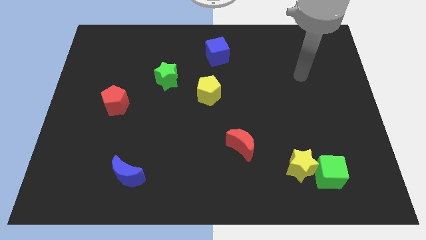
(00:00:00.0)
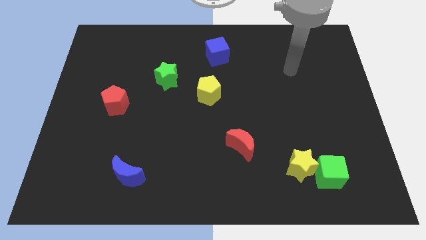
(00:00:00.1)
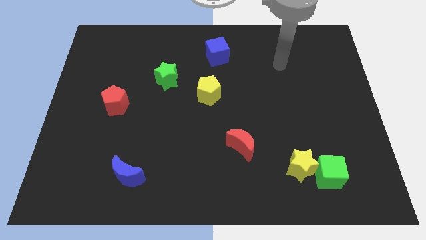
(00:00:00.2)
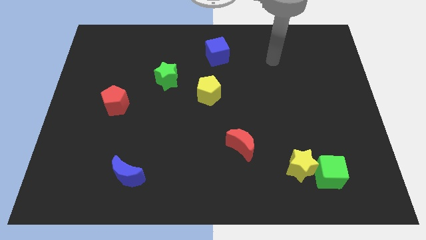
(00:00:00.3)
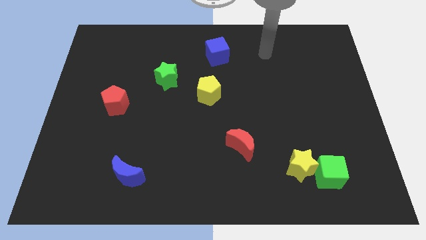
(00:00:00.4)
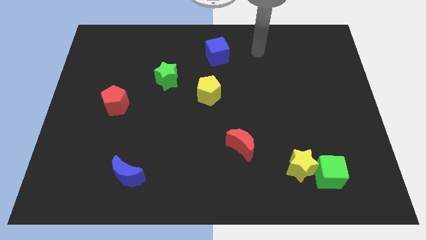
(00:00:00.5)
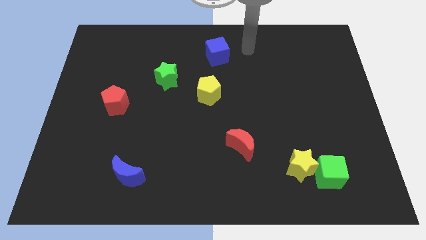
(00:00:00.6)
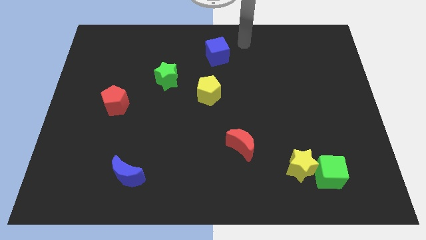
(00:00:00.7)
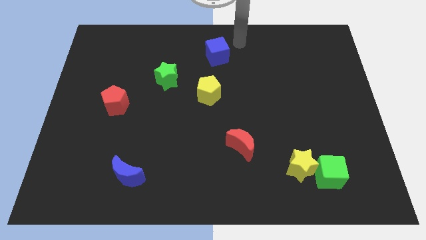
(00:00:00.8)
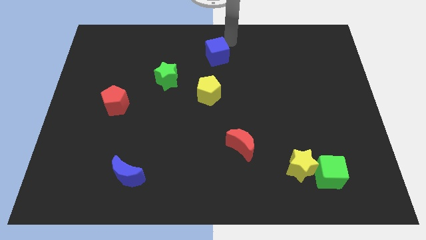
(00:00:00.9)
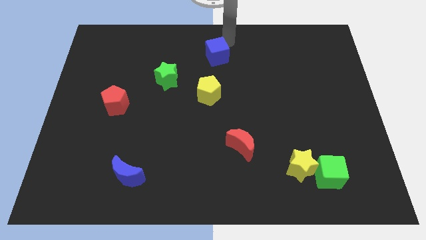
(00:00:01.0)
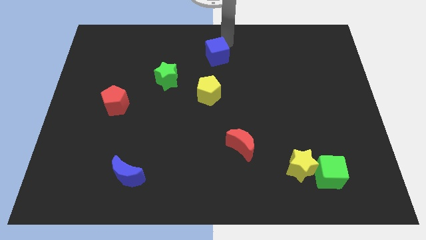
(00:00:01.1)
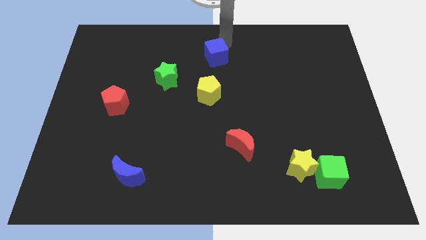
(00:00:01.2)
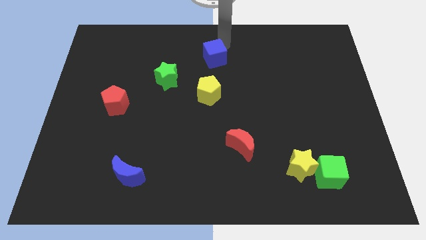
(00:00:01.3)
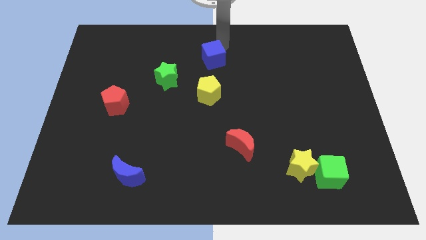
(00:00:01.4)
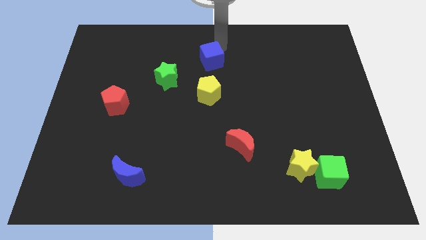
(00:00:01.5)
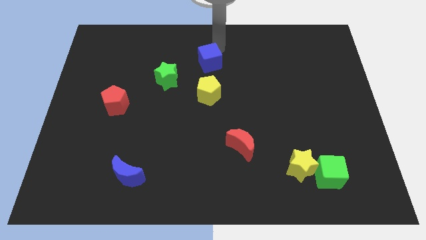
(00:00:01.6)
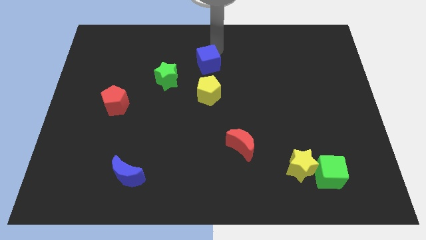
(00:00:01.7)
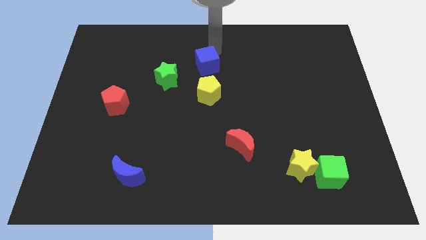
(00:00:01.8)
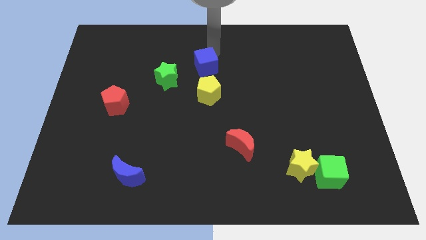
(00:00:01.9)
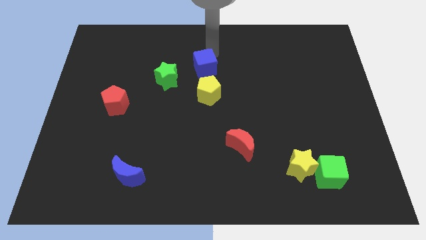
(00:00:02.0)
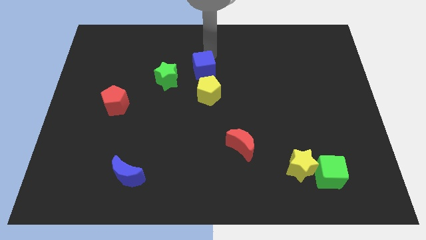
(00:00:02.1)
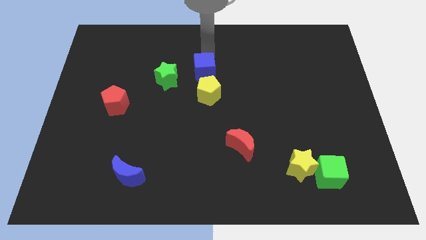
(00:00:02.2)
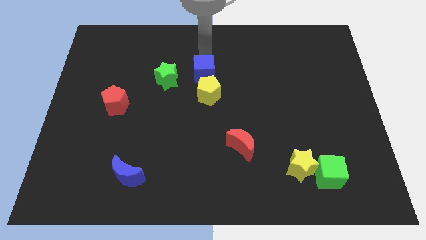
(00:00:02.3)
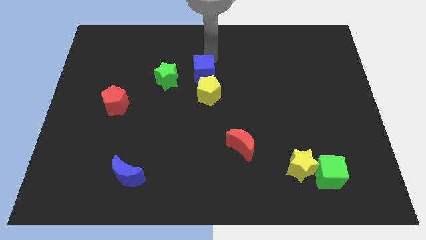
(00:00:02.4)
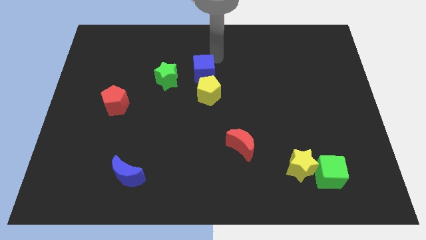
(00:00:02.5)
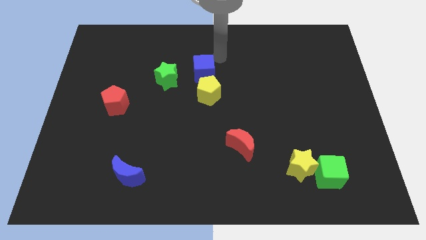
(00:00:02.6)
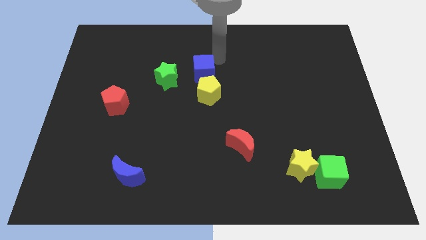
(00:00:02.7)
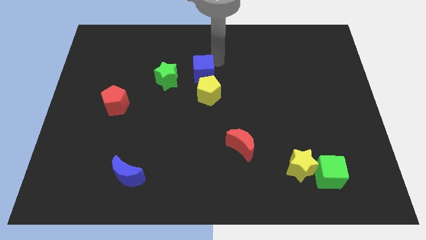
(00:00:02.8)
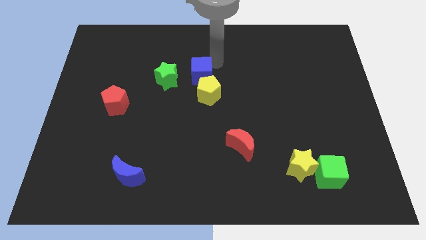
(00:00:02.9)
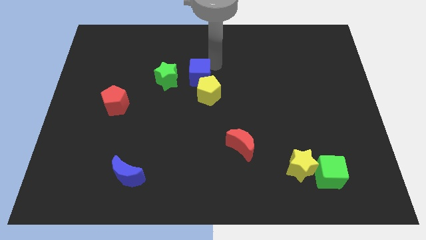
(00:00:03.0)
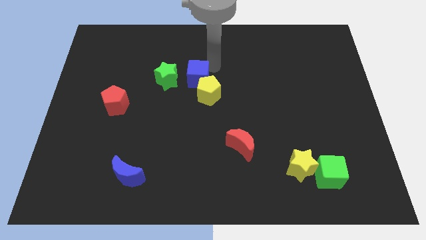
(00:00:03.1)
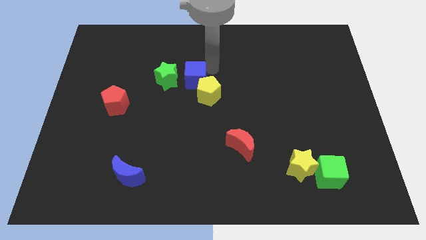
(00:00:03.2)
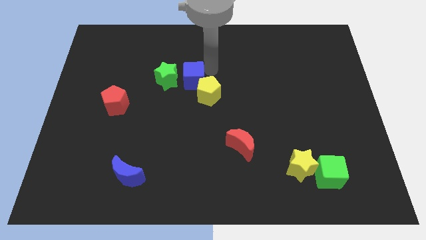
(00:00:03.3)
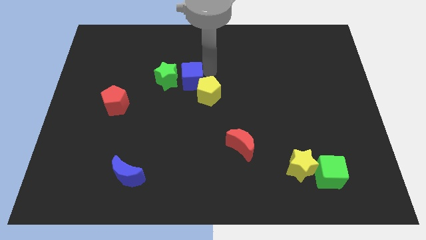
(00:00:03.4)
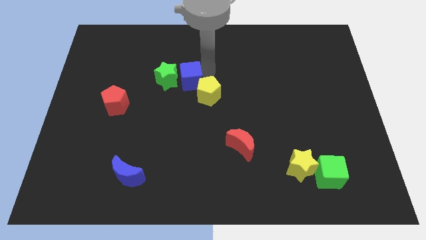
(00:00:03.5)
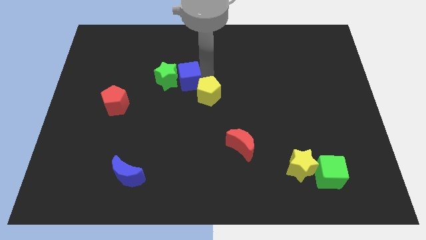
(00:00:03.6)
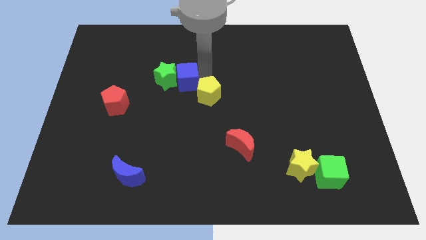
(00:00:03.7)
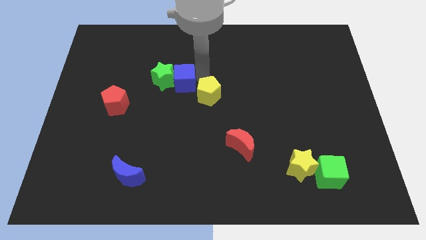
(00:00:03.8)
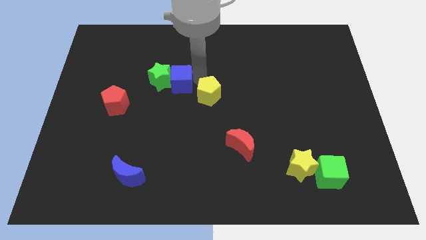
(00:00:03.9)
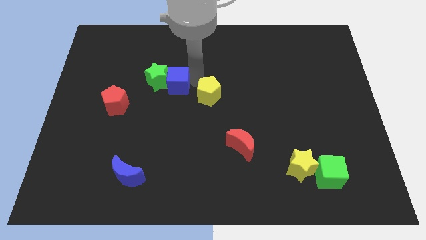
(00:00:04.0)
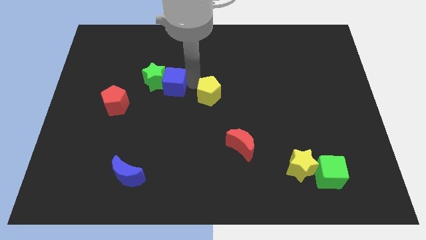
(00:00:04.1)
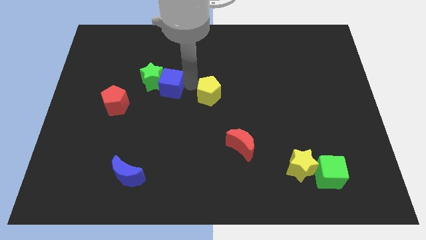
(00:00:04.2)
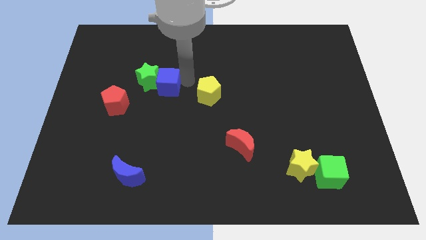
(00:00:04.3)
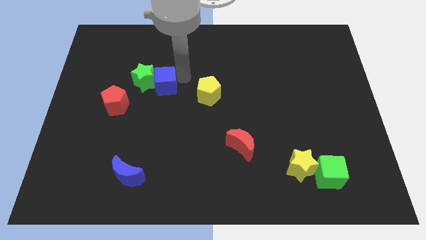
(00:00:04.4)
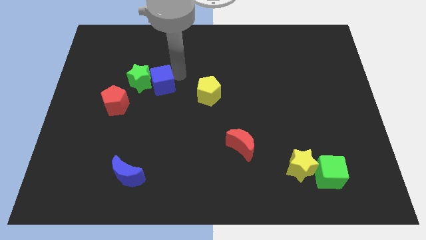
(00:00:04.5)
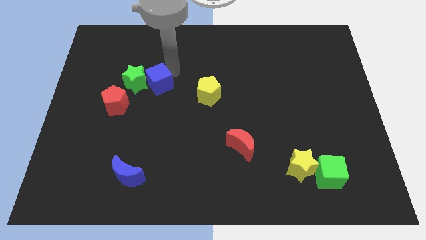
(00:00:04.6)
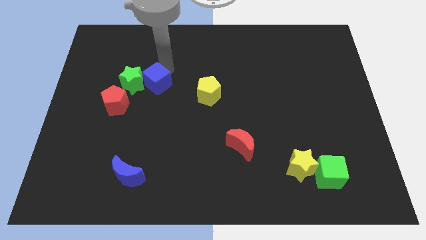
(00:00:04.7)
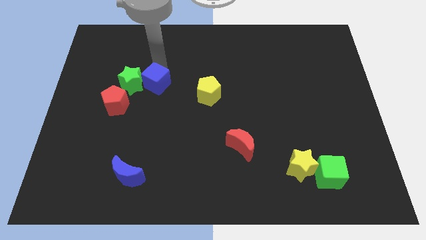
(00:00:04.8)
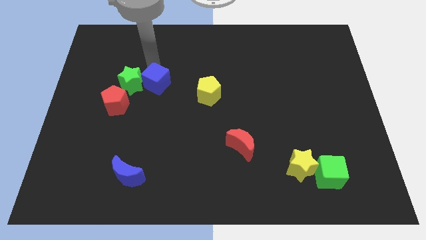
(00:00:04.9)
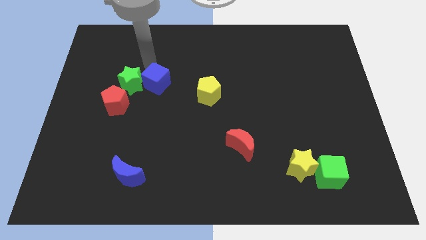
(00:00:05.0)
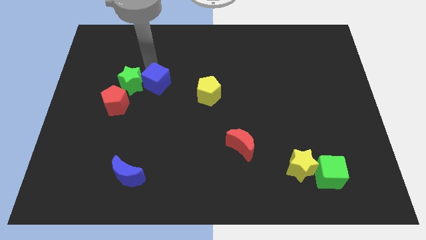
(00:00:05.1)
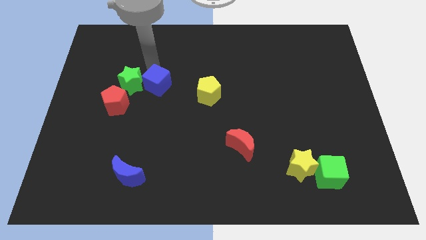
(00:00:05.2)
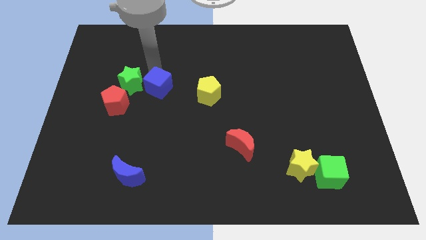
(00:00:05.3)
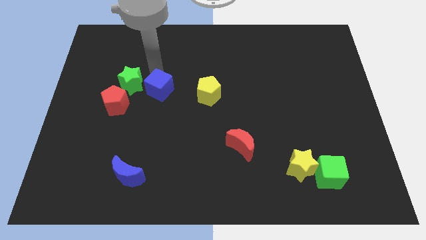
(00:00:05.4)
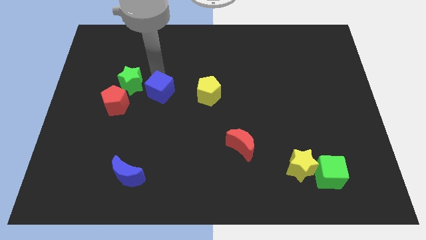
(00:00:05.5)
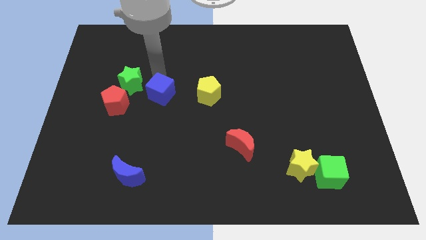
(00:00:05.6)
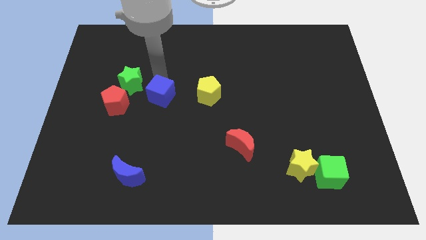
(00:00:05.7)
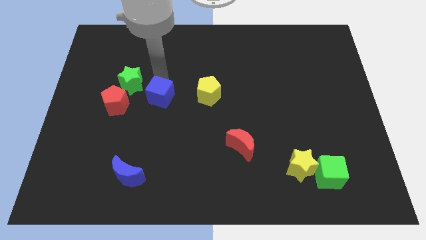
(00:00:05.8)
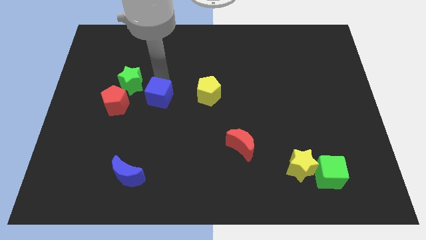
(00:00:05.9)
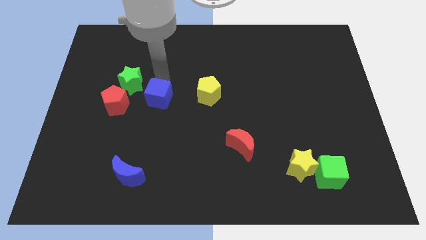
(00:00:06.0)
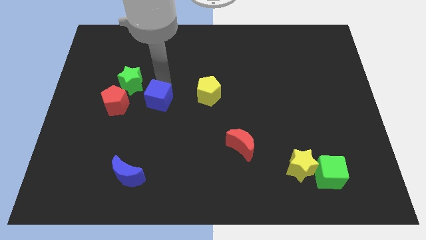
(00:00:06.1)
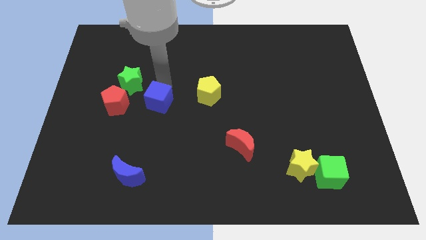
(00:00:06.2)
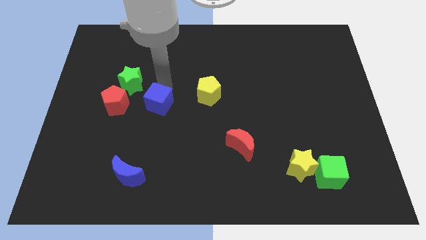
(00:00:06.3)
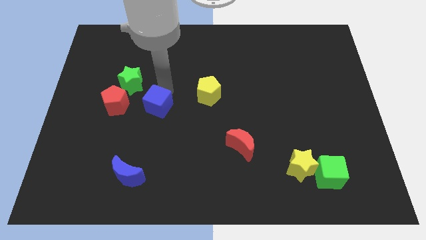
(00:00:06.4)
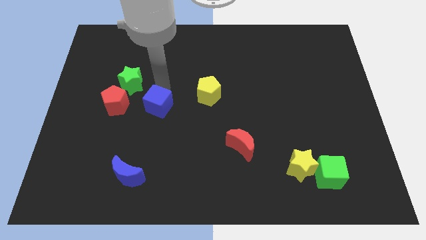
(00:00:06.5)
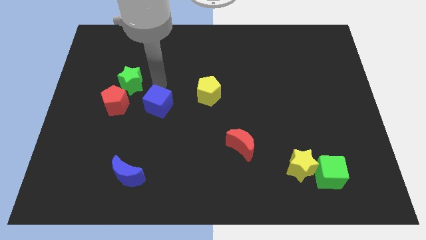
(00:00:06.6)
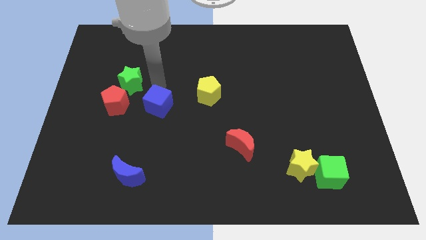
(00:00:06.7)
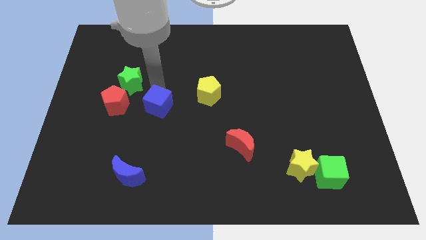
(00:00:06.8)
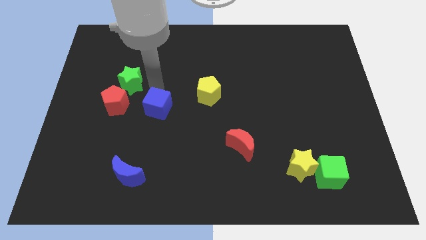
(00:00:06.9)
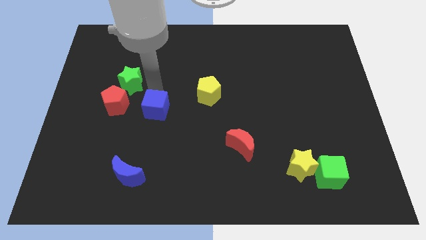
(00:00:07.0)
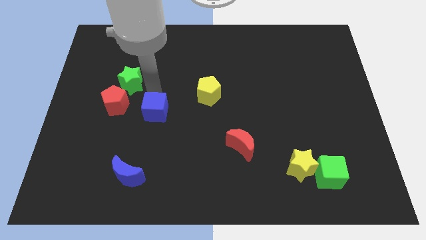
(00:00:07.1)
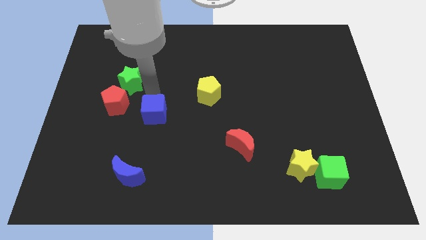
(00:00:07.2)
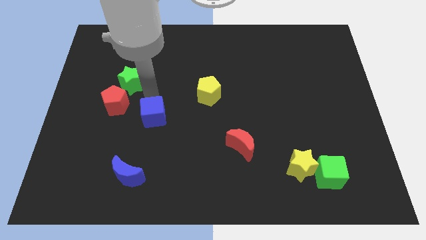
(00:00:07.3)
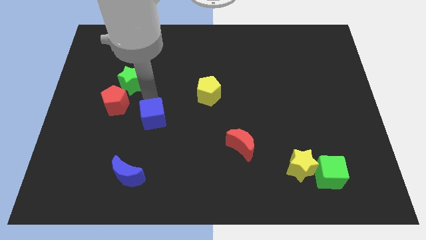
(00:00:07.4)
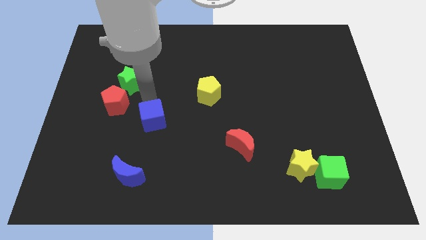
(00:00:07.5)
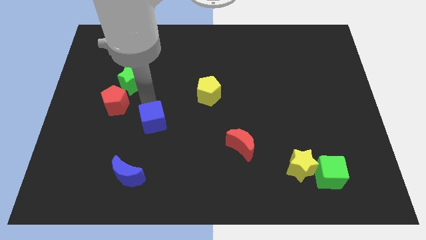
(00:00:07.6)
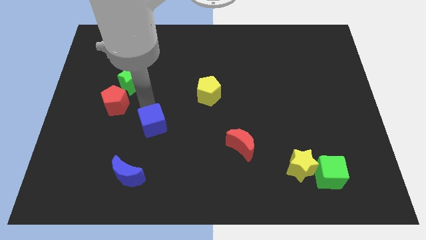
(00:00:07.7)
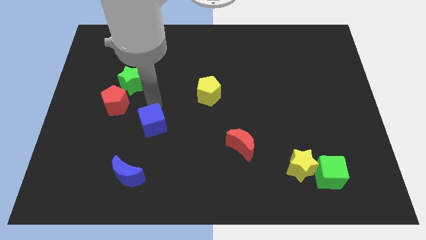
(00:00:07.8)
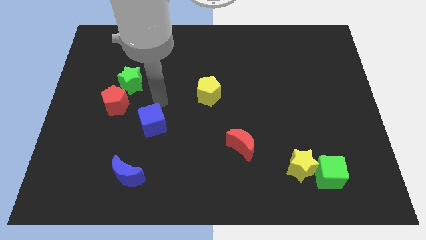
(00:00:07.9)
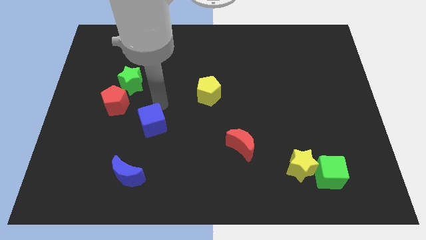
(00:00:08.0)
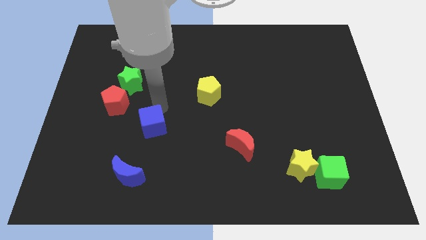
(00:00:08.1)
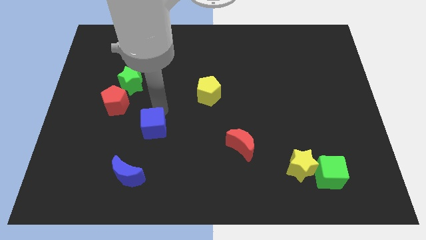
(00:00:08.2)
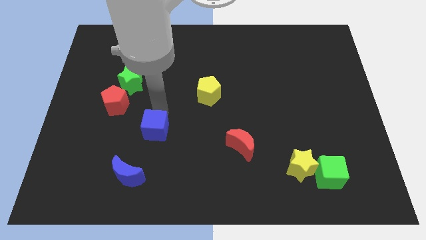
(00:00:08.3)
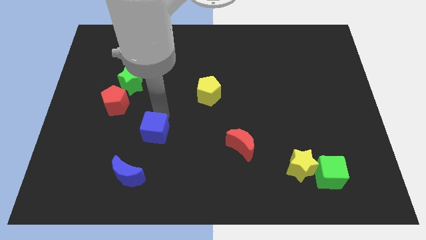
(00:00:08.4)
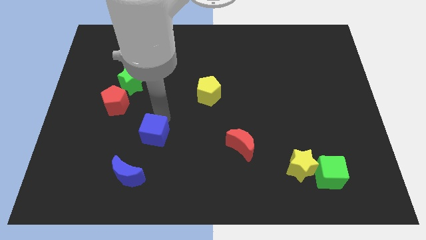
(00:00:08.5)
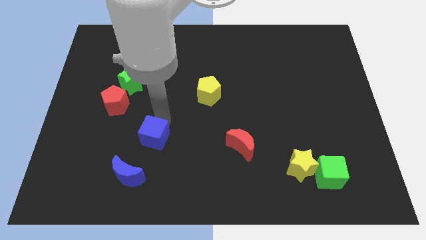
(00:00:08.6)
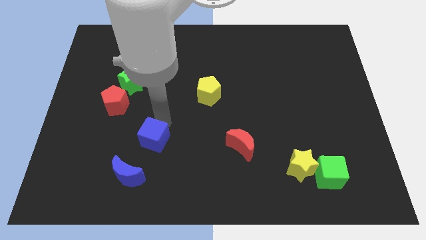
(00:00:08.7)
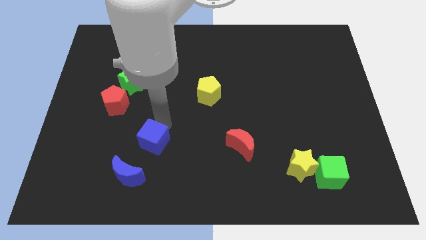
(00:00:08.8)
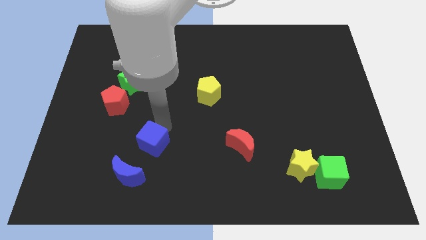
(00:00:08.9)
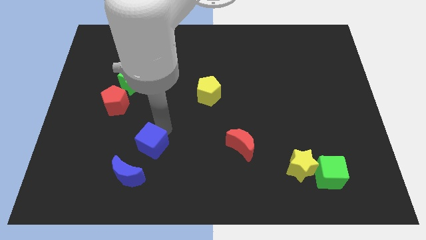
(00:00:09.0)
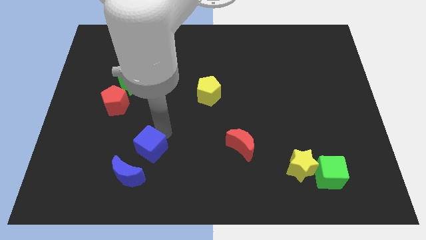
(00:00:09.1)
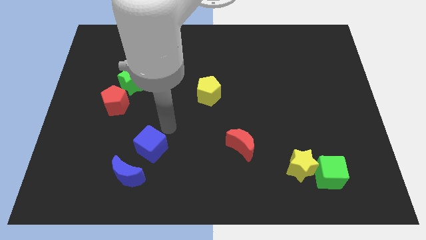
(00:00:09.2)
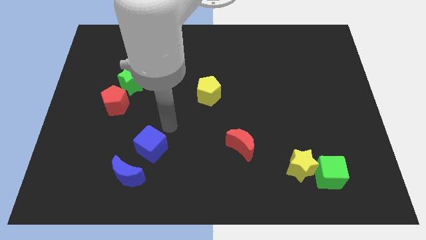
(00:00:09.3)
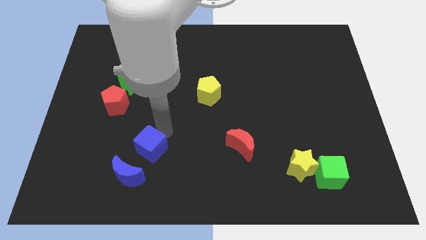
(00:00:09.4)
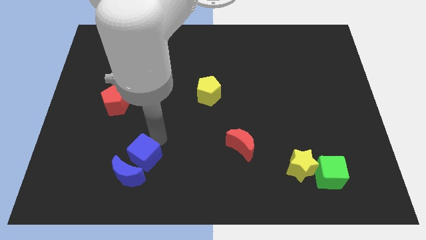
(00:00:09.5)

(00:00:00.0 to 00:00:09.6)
move the blue cube close to the blue moon
